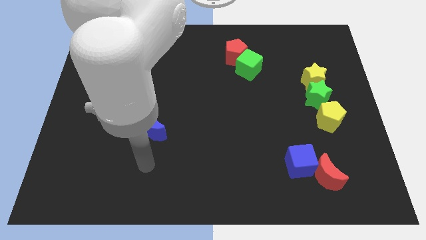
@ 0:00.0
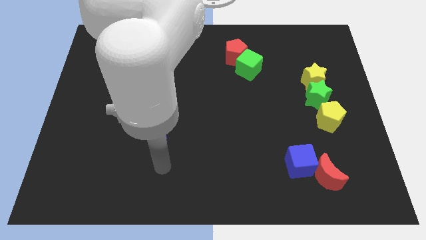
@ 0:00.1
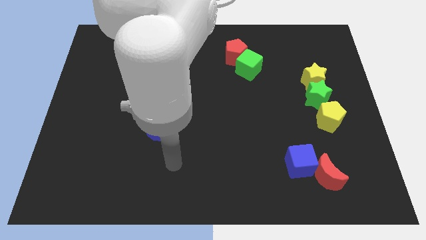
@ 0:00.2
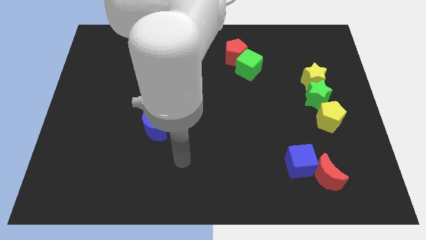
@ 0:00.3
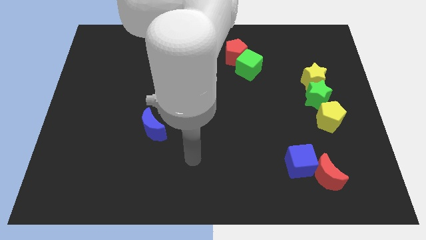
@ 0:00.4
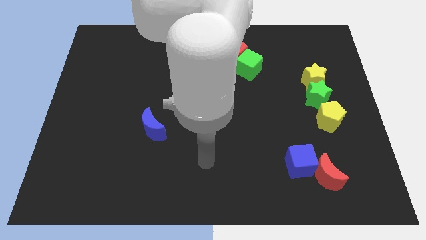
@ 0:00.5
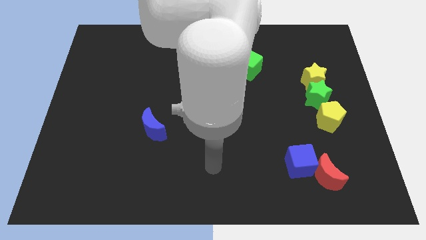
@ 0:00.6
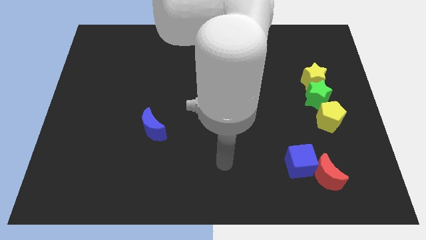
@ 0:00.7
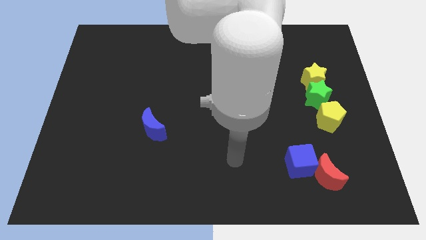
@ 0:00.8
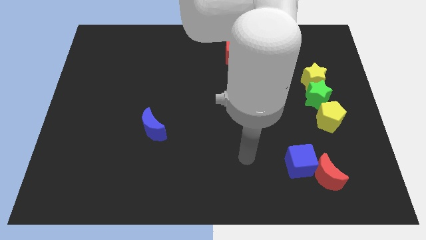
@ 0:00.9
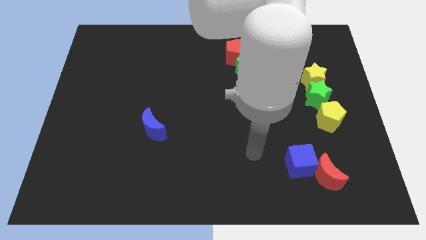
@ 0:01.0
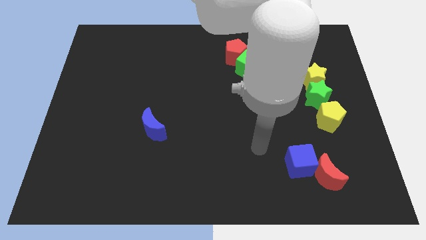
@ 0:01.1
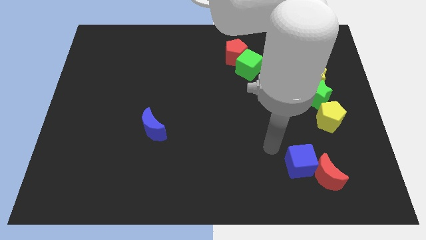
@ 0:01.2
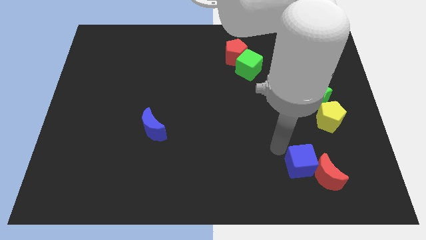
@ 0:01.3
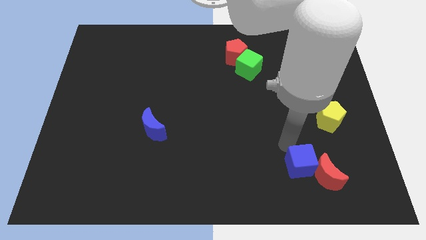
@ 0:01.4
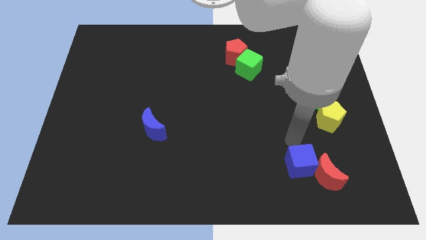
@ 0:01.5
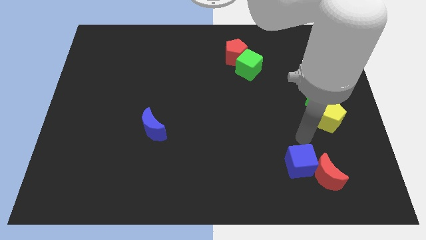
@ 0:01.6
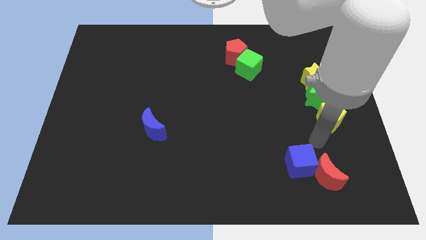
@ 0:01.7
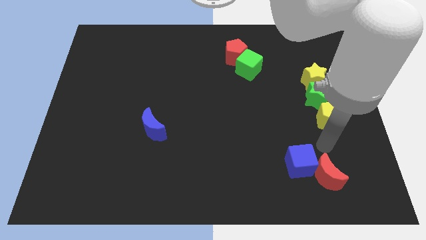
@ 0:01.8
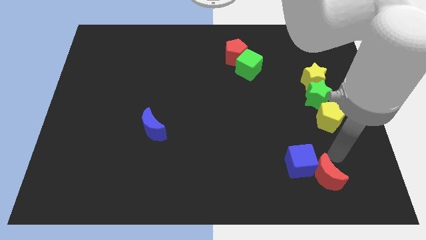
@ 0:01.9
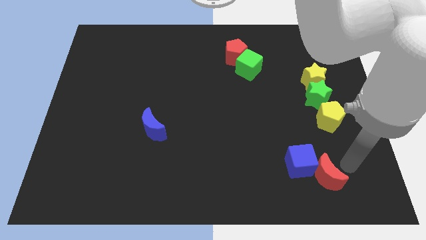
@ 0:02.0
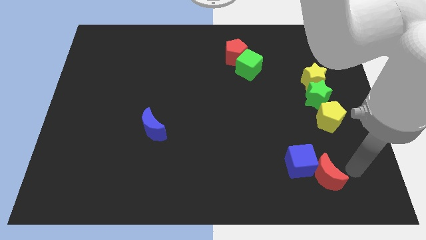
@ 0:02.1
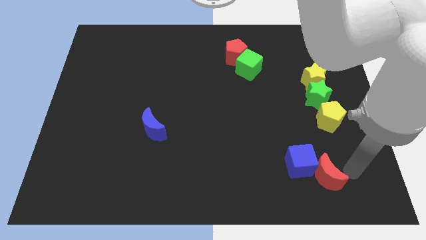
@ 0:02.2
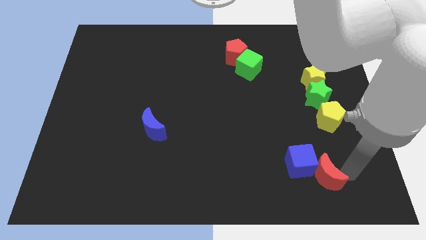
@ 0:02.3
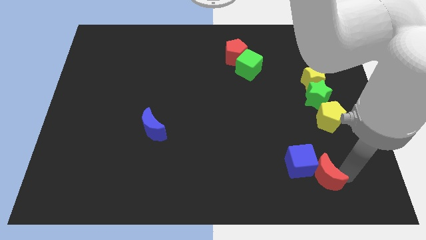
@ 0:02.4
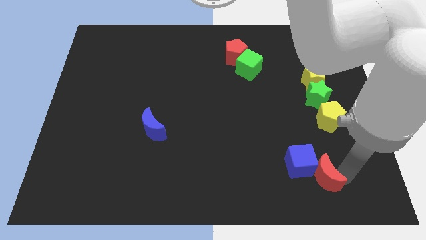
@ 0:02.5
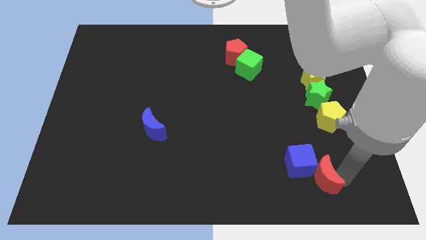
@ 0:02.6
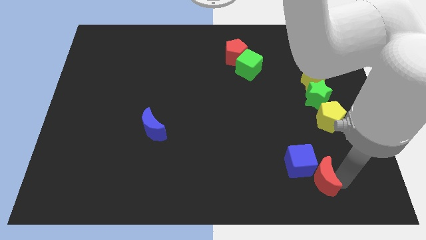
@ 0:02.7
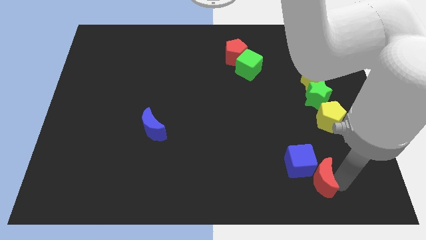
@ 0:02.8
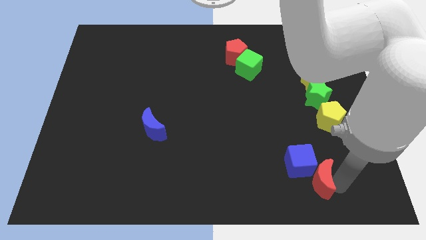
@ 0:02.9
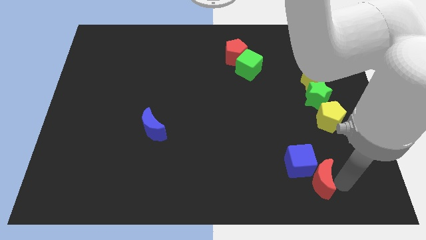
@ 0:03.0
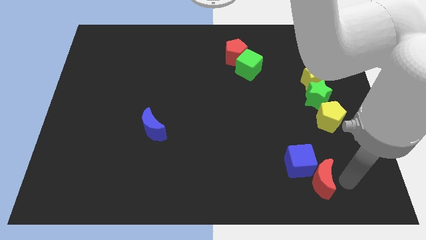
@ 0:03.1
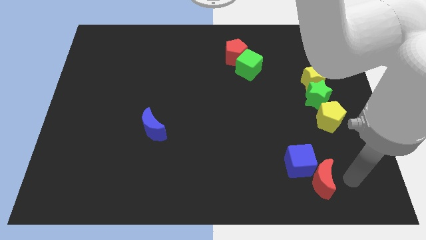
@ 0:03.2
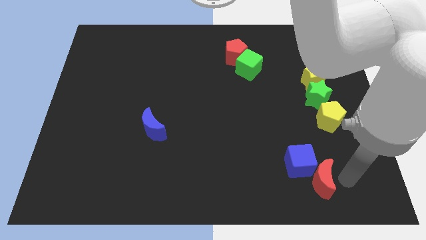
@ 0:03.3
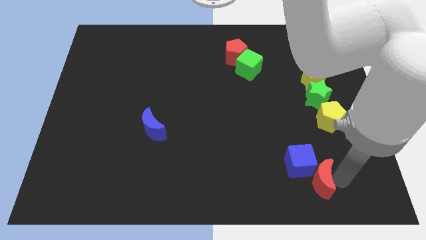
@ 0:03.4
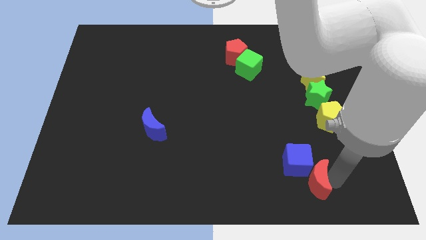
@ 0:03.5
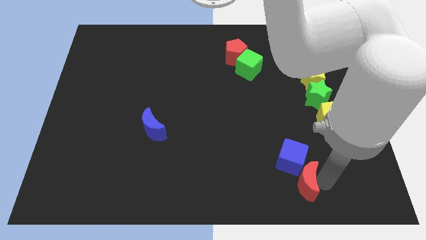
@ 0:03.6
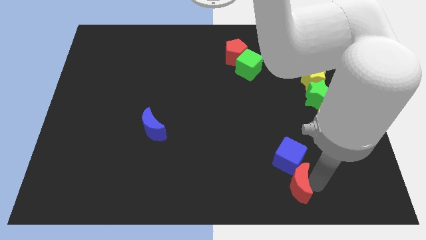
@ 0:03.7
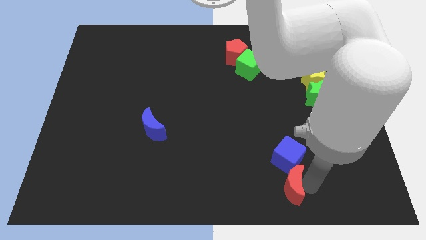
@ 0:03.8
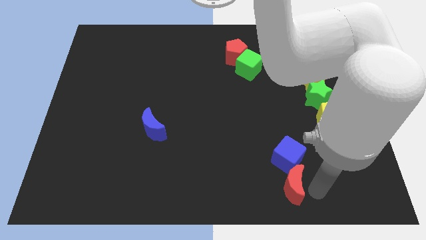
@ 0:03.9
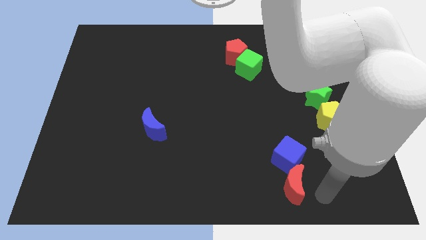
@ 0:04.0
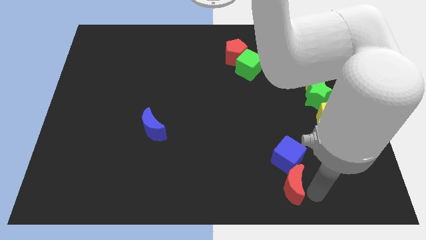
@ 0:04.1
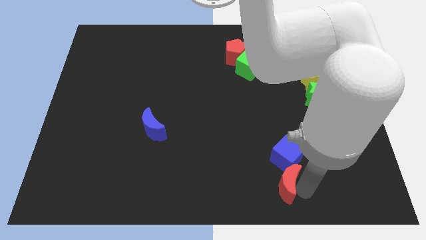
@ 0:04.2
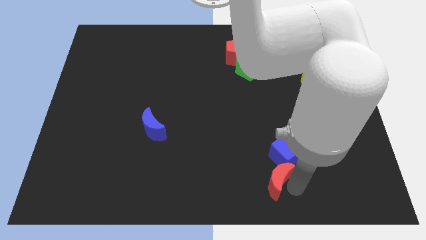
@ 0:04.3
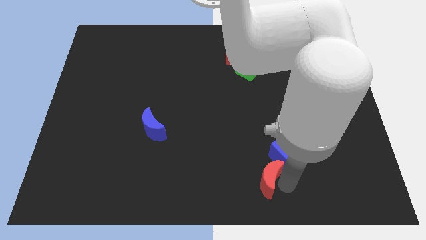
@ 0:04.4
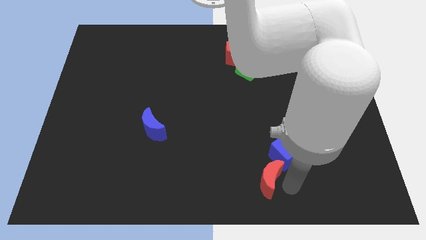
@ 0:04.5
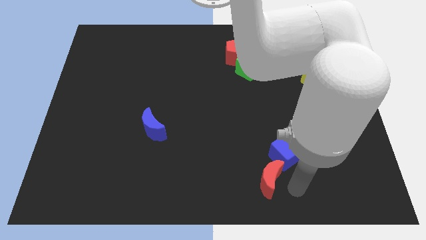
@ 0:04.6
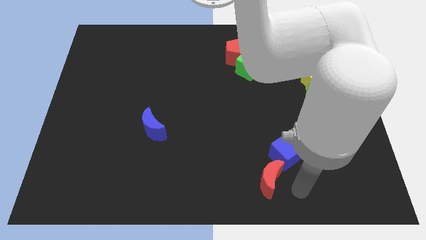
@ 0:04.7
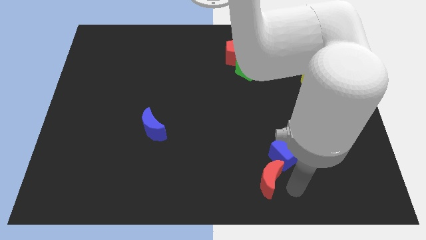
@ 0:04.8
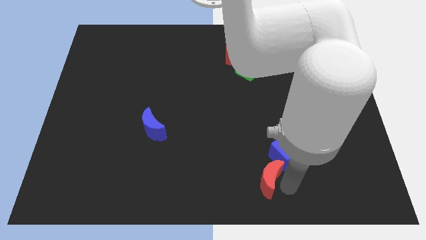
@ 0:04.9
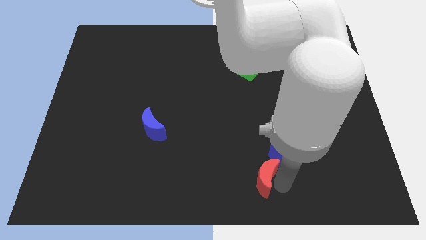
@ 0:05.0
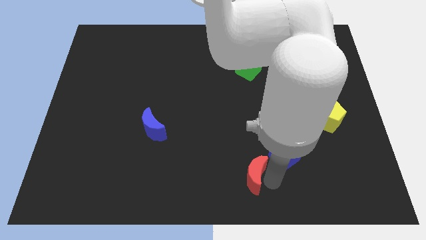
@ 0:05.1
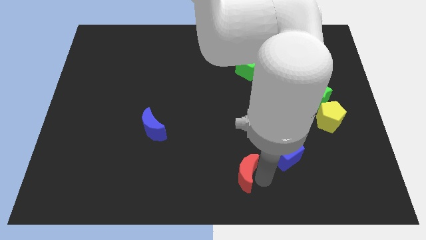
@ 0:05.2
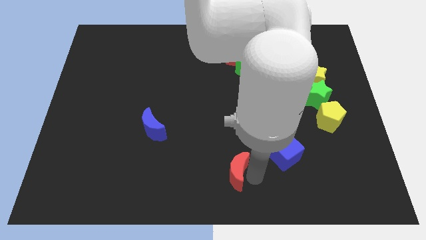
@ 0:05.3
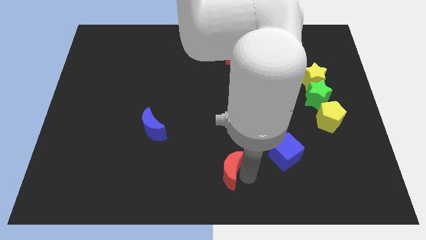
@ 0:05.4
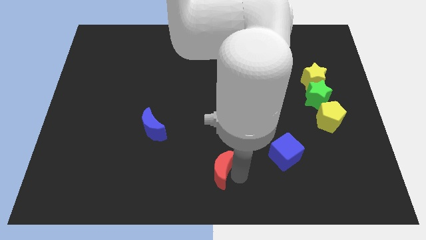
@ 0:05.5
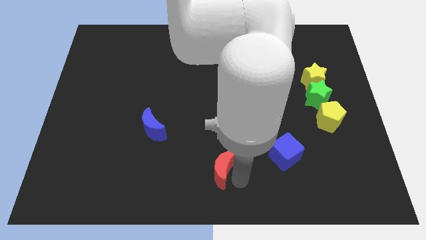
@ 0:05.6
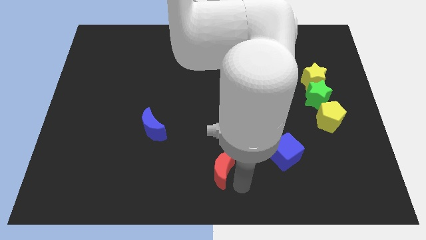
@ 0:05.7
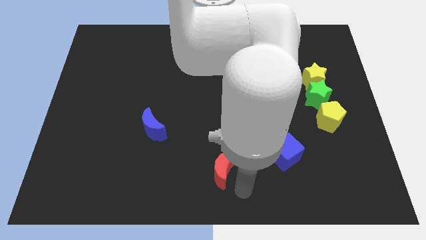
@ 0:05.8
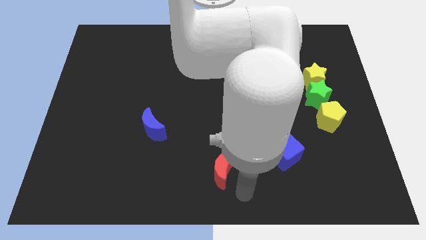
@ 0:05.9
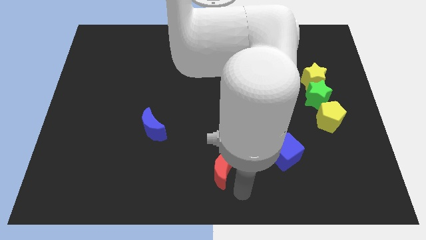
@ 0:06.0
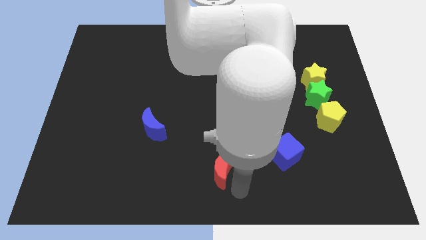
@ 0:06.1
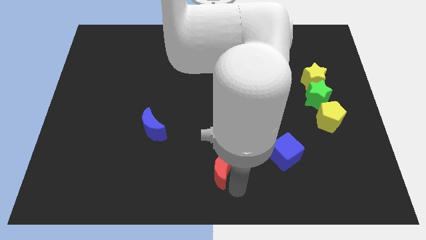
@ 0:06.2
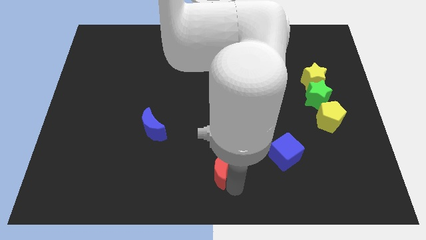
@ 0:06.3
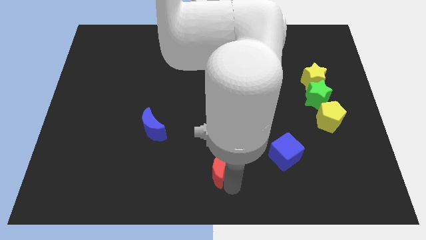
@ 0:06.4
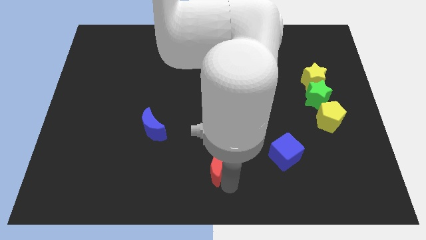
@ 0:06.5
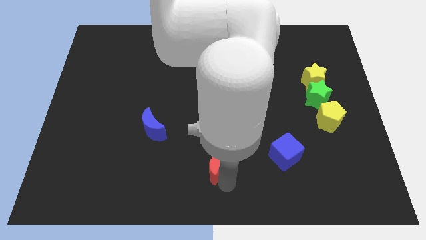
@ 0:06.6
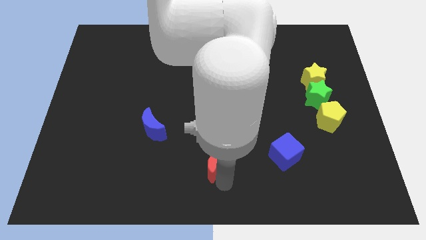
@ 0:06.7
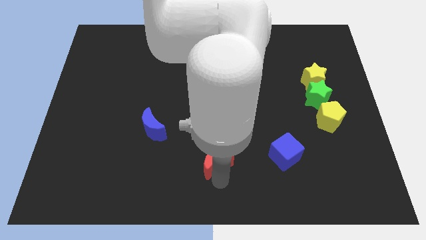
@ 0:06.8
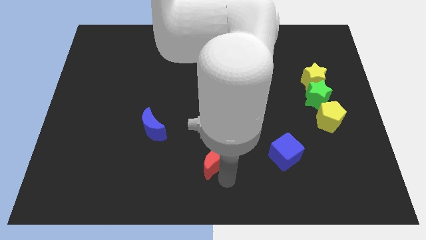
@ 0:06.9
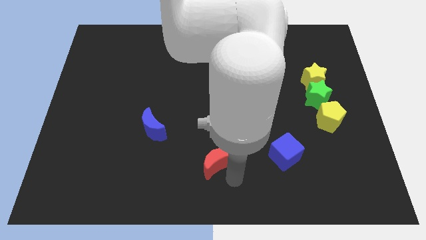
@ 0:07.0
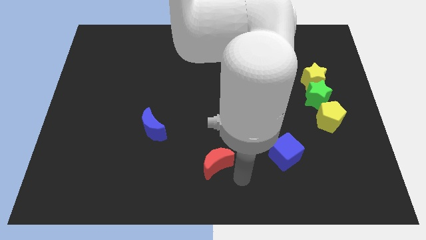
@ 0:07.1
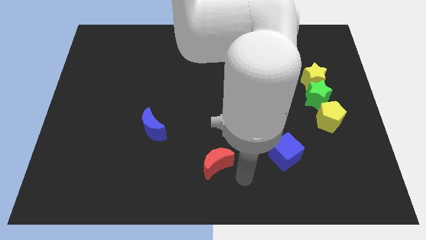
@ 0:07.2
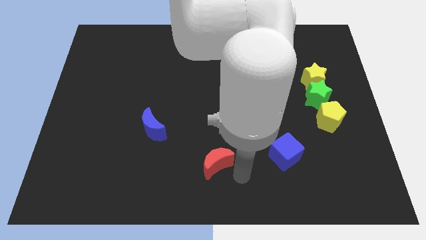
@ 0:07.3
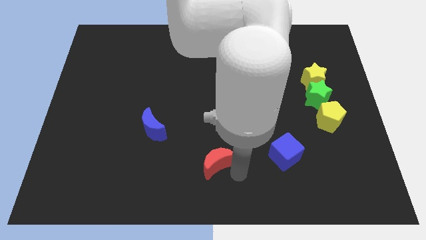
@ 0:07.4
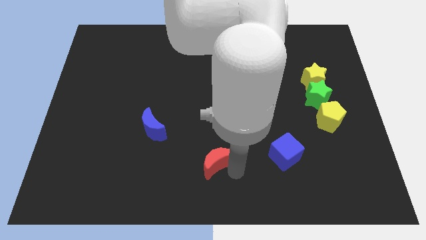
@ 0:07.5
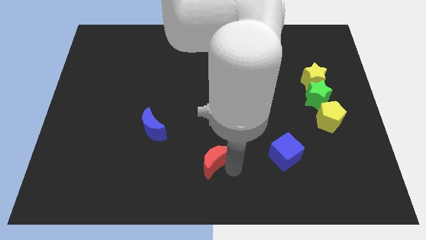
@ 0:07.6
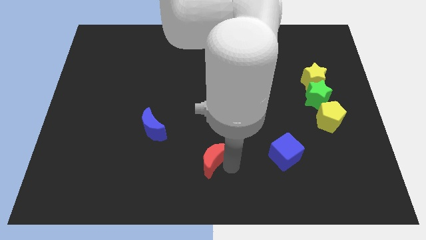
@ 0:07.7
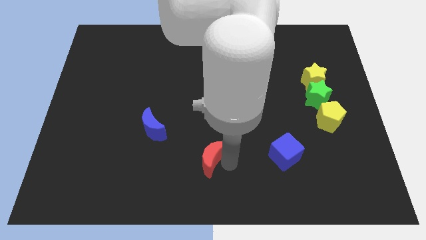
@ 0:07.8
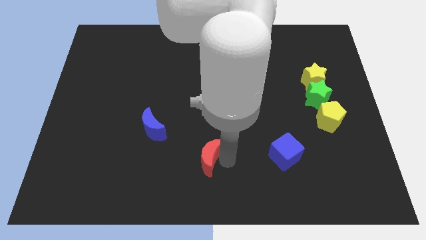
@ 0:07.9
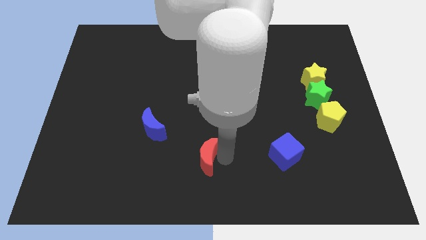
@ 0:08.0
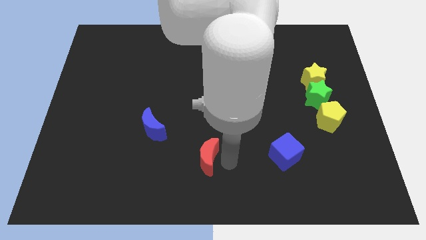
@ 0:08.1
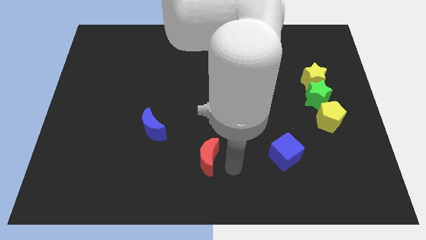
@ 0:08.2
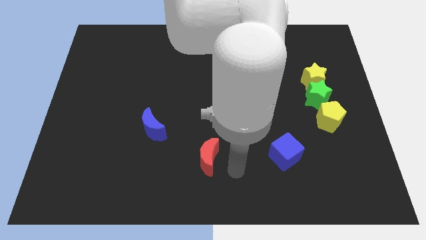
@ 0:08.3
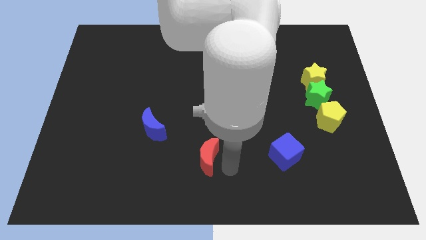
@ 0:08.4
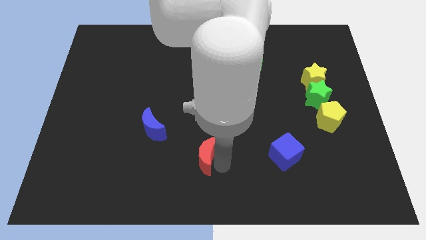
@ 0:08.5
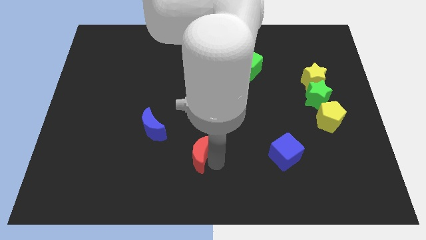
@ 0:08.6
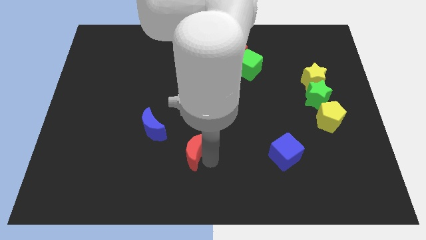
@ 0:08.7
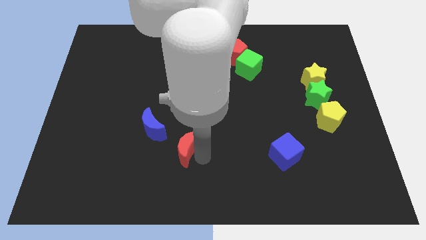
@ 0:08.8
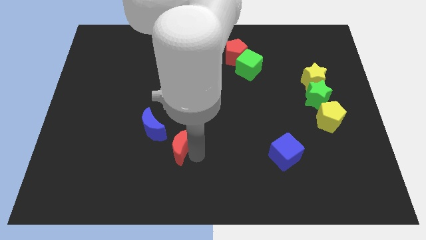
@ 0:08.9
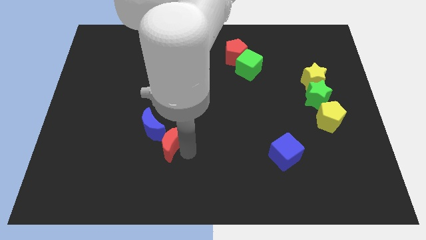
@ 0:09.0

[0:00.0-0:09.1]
put the red moon close to the blue moon
